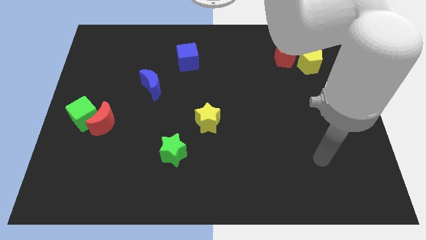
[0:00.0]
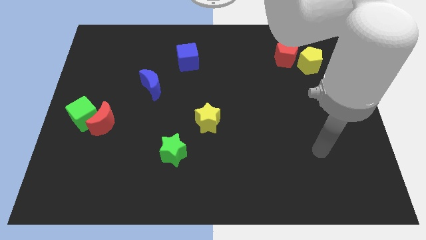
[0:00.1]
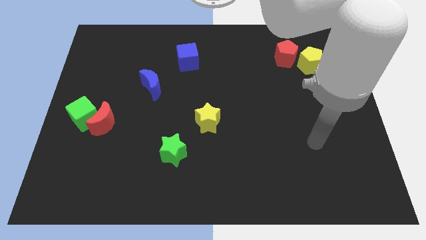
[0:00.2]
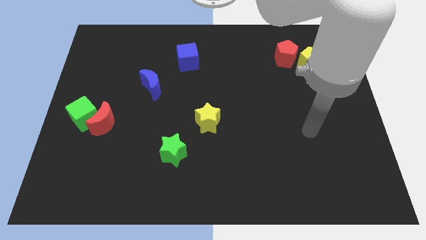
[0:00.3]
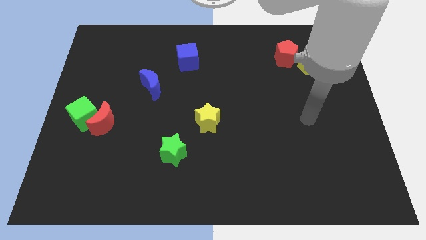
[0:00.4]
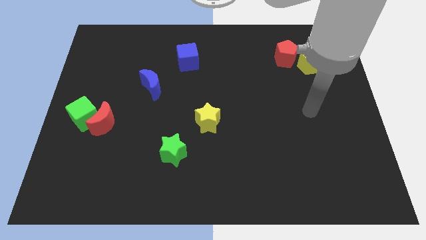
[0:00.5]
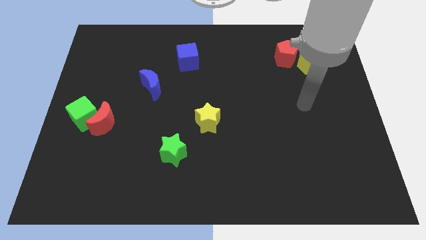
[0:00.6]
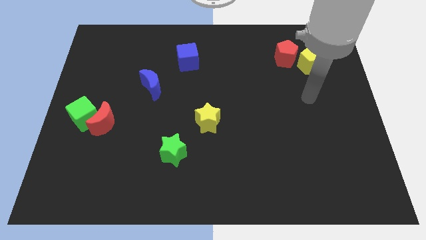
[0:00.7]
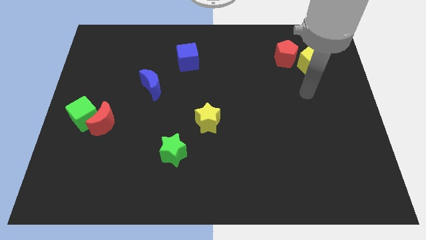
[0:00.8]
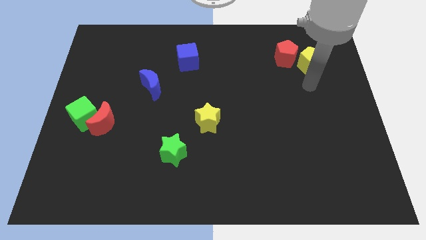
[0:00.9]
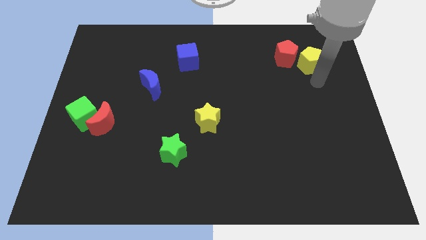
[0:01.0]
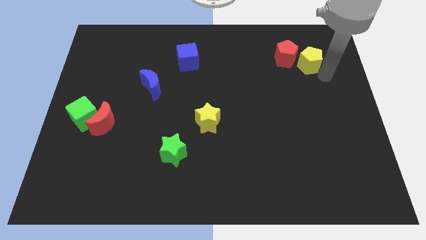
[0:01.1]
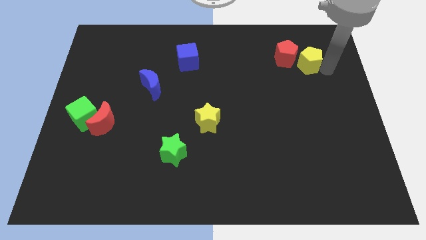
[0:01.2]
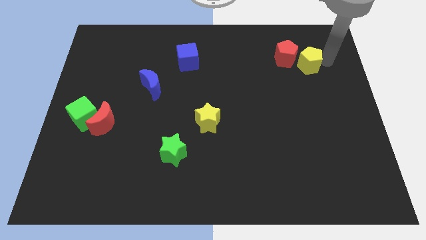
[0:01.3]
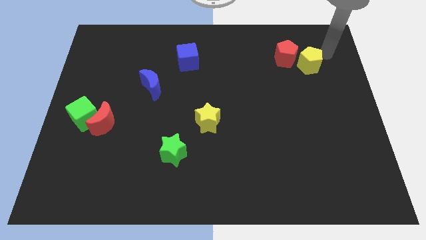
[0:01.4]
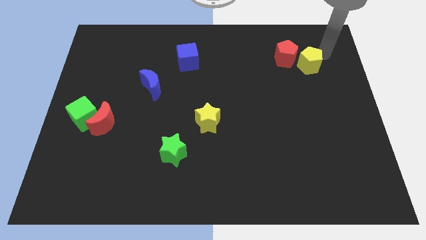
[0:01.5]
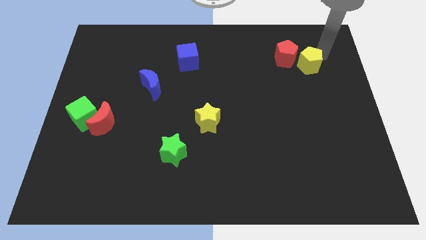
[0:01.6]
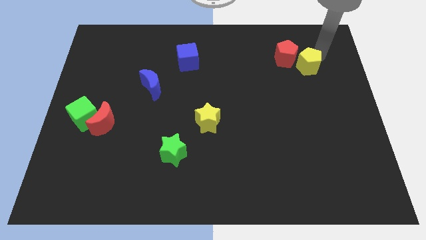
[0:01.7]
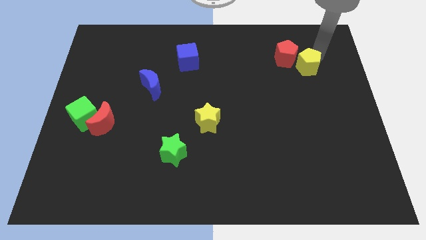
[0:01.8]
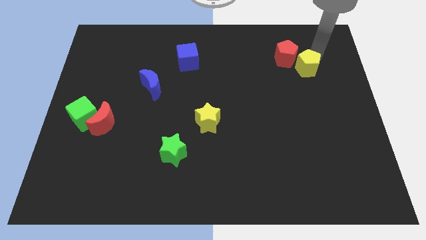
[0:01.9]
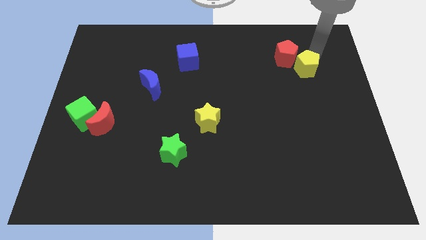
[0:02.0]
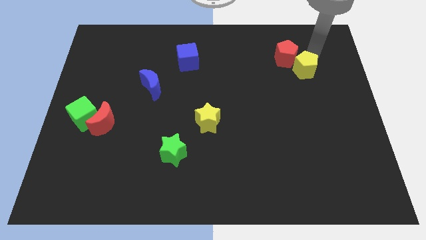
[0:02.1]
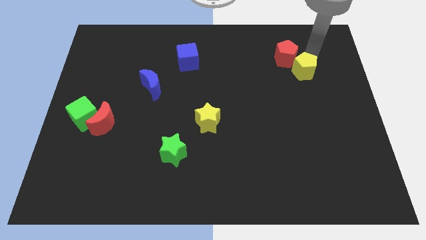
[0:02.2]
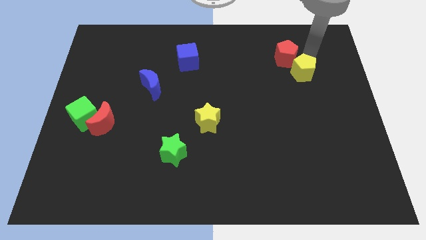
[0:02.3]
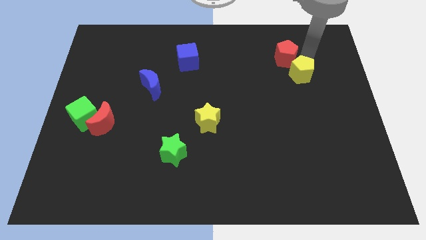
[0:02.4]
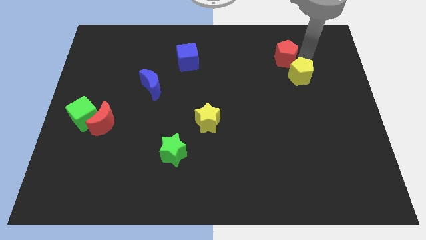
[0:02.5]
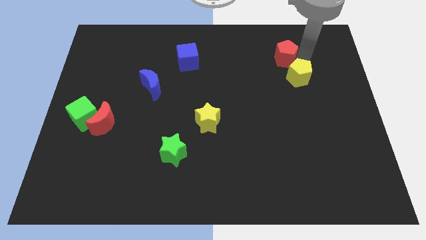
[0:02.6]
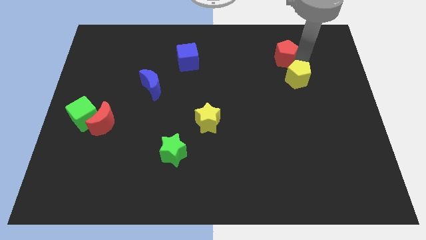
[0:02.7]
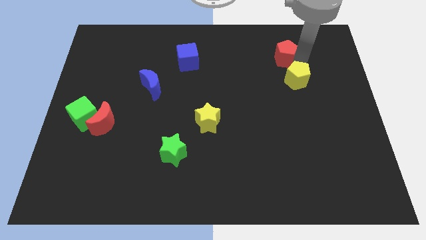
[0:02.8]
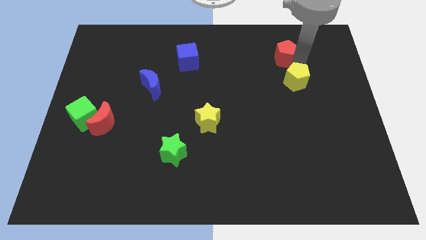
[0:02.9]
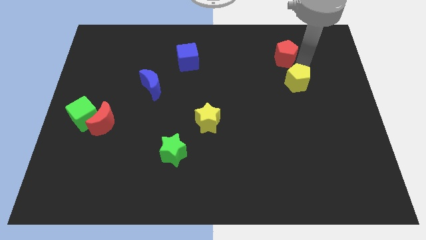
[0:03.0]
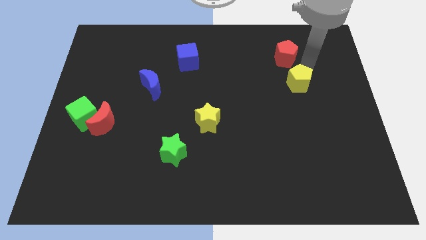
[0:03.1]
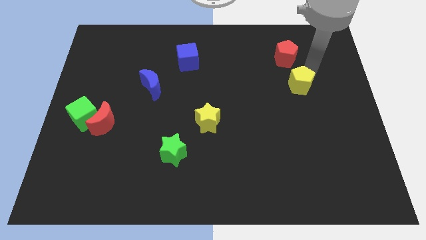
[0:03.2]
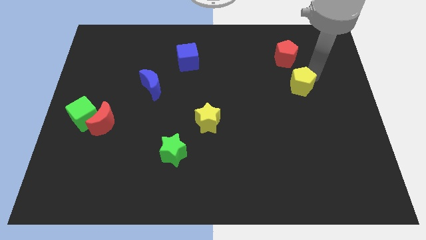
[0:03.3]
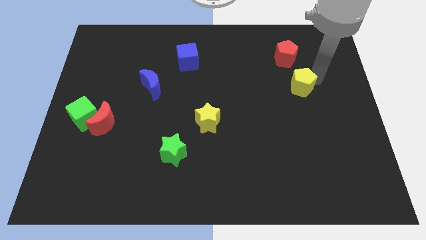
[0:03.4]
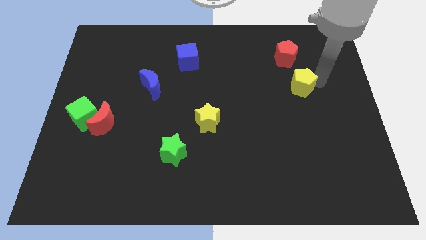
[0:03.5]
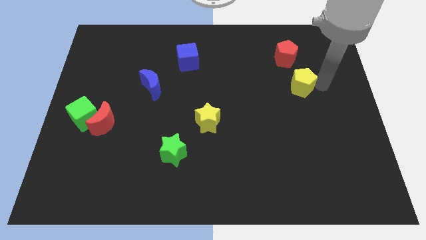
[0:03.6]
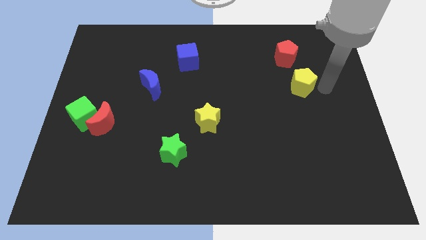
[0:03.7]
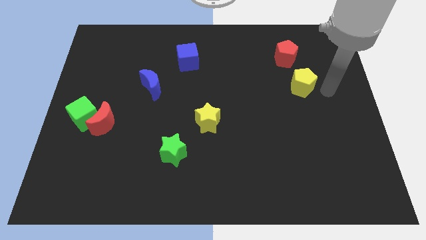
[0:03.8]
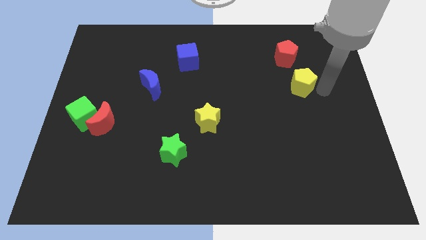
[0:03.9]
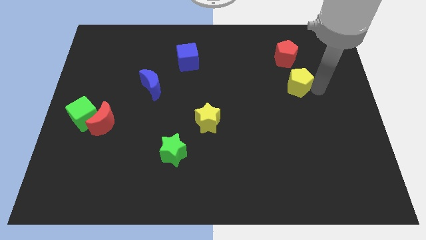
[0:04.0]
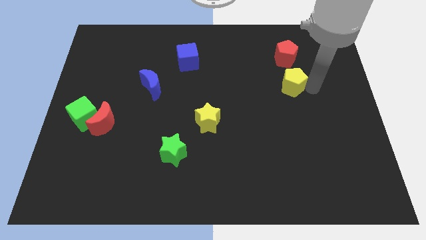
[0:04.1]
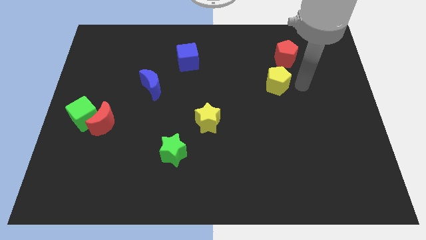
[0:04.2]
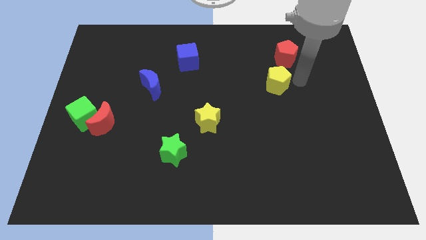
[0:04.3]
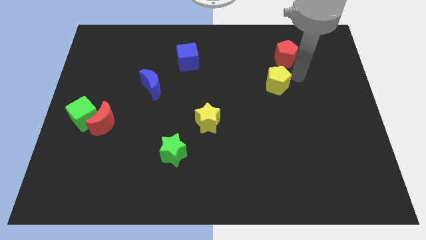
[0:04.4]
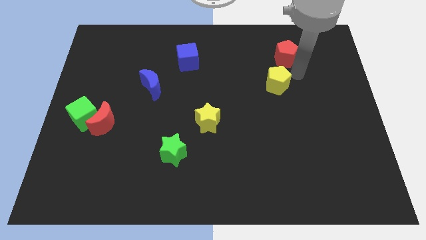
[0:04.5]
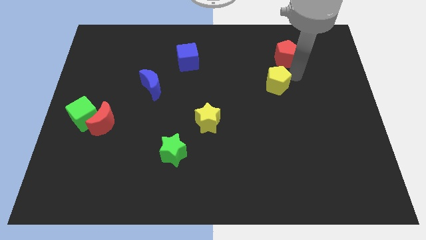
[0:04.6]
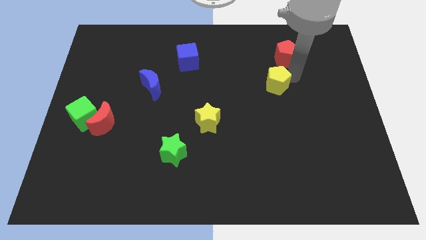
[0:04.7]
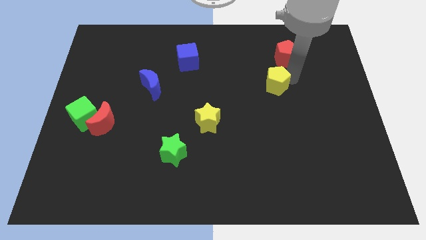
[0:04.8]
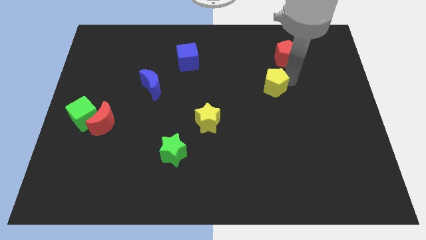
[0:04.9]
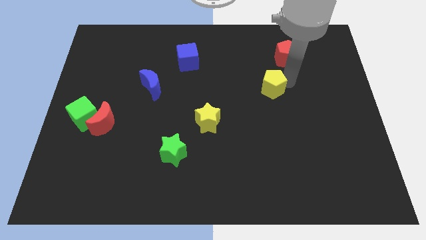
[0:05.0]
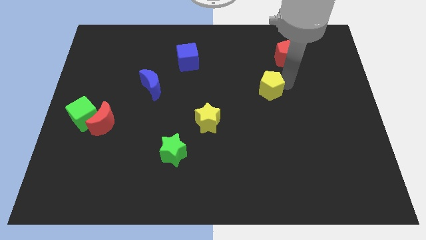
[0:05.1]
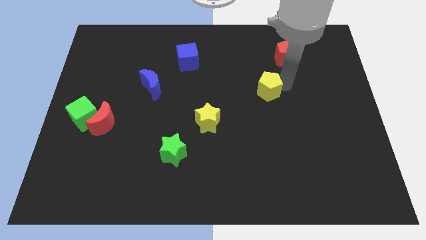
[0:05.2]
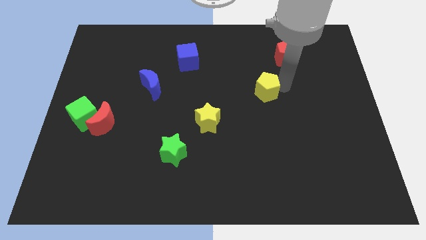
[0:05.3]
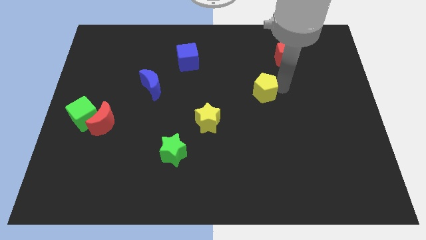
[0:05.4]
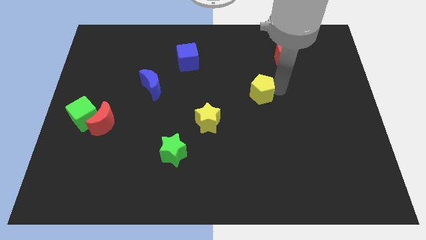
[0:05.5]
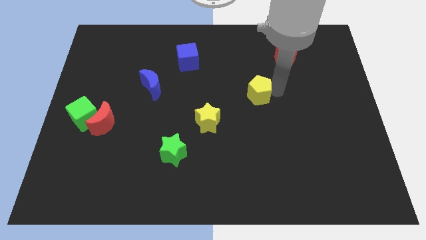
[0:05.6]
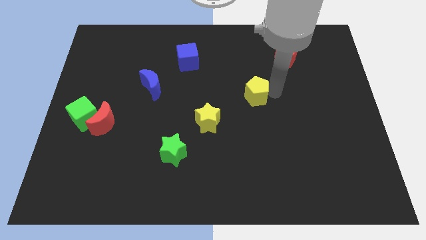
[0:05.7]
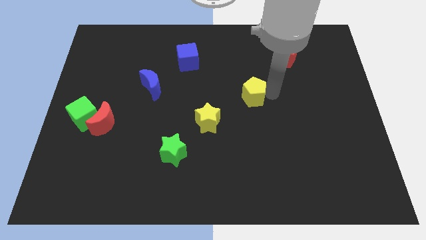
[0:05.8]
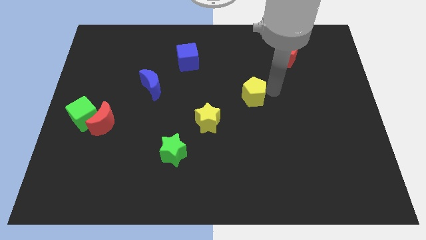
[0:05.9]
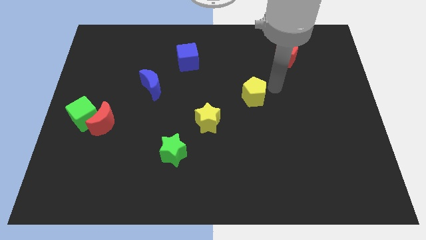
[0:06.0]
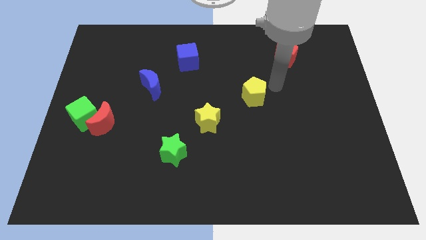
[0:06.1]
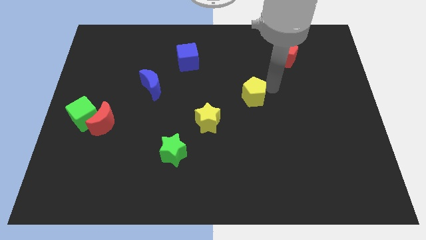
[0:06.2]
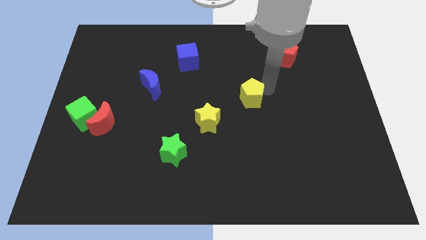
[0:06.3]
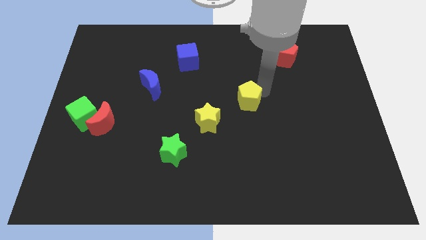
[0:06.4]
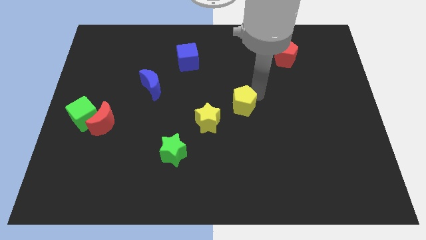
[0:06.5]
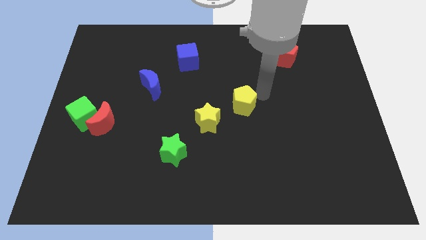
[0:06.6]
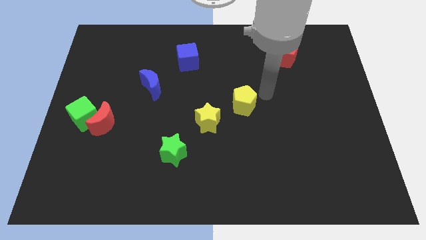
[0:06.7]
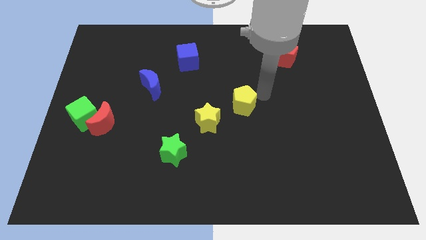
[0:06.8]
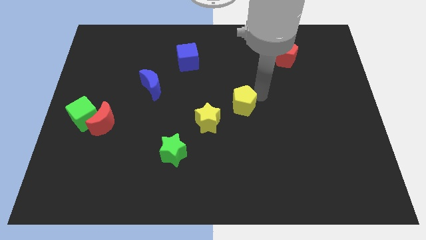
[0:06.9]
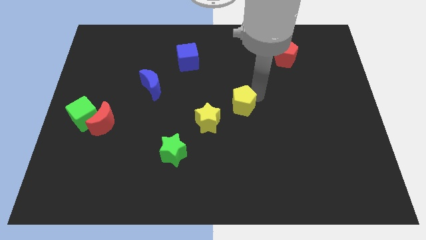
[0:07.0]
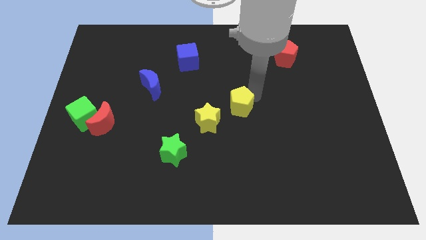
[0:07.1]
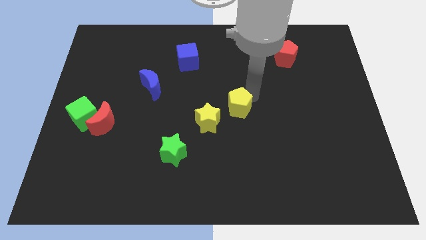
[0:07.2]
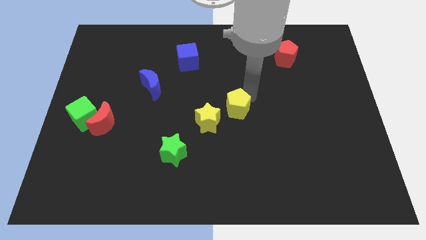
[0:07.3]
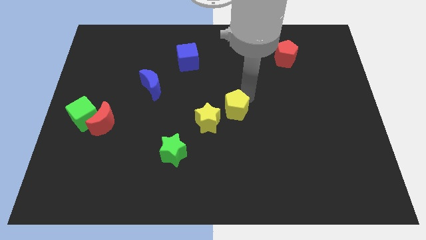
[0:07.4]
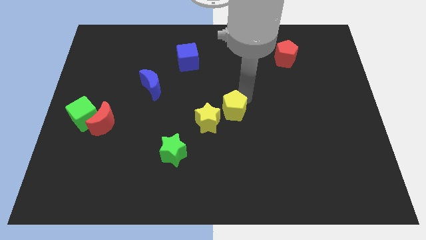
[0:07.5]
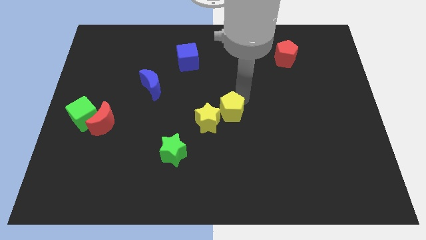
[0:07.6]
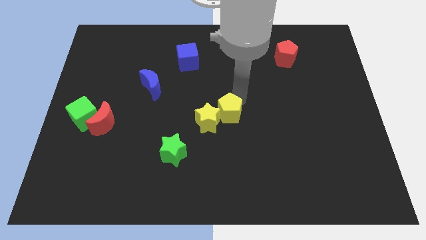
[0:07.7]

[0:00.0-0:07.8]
slide the yellow pentagon next to the yellow star

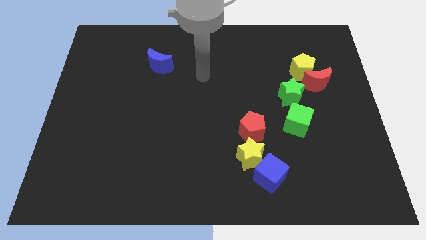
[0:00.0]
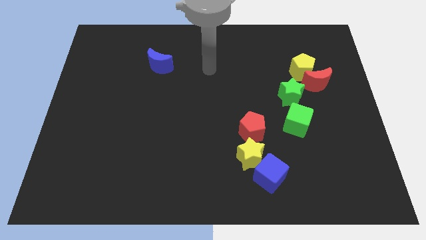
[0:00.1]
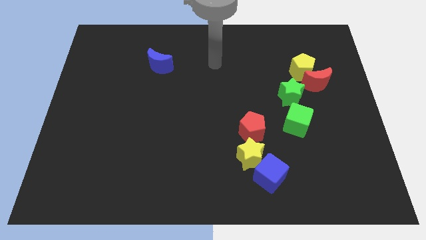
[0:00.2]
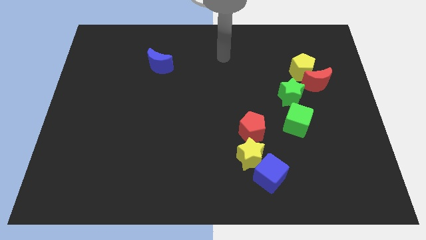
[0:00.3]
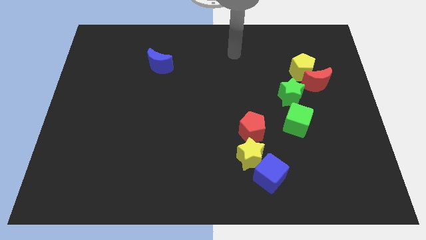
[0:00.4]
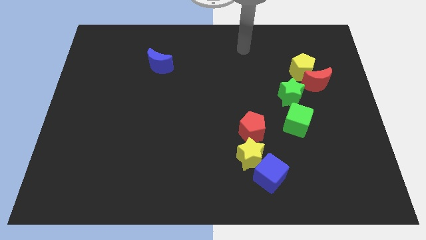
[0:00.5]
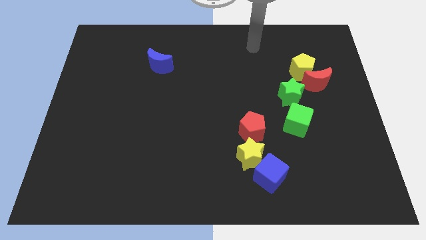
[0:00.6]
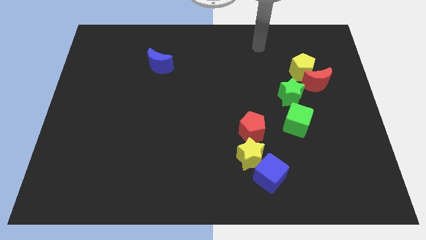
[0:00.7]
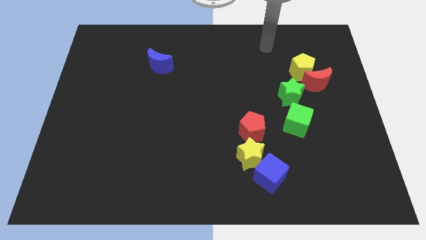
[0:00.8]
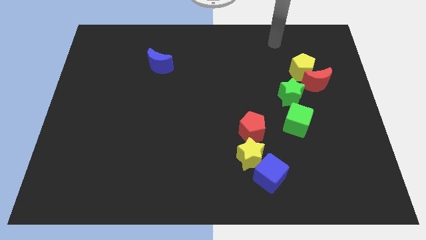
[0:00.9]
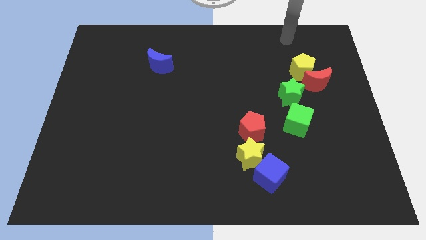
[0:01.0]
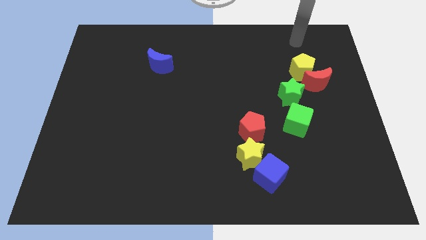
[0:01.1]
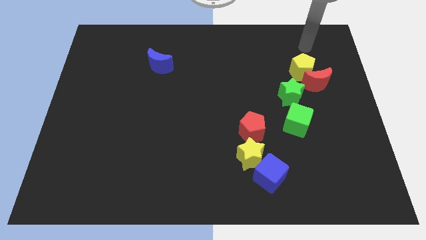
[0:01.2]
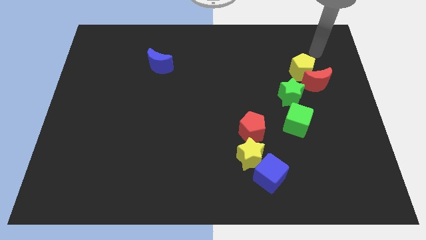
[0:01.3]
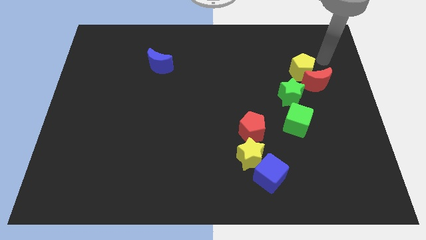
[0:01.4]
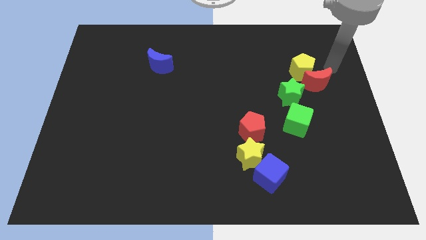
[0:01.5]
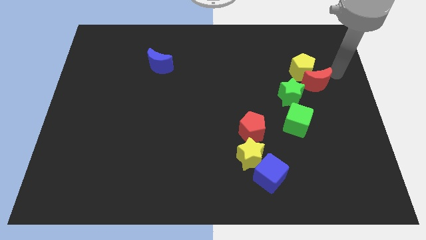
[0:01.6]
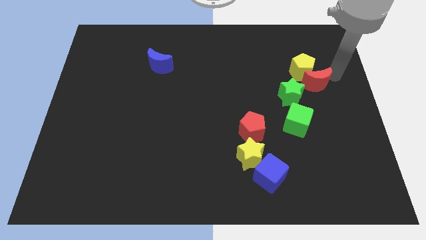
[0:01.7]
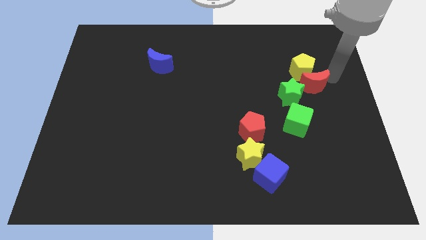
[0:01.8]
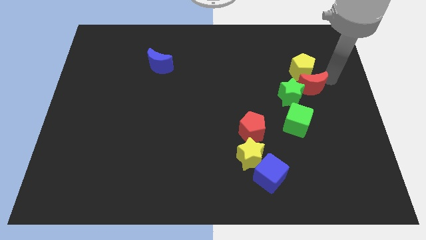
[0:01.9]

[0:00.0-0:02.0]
put the red moon next to the green star
